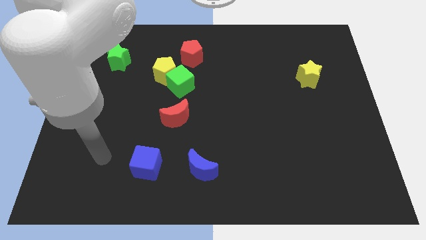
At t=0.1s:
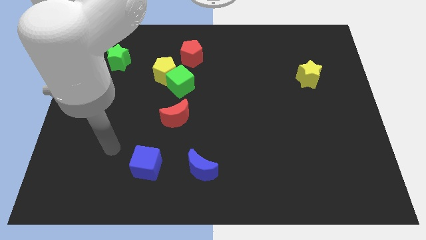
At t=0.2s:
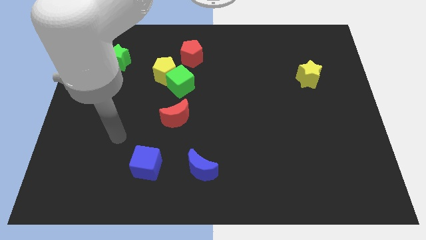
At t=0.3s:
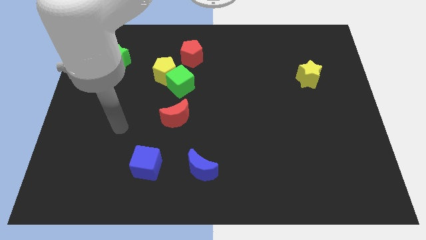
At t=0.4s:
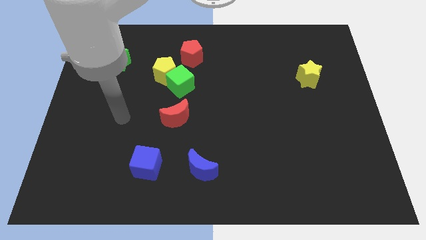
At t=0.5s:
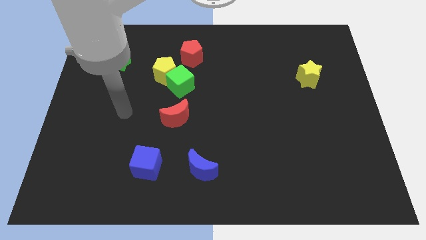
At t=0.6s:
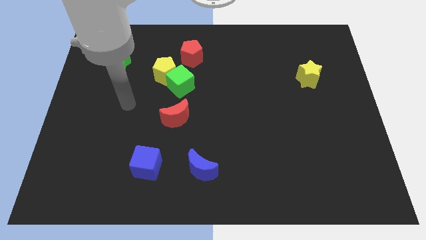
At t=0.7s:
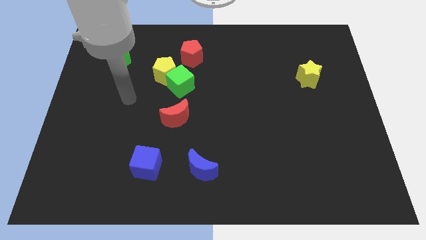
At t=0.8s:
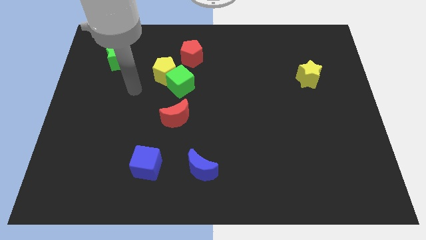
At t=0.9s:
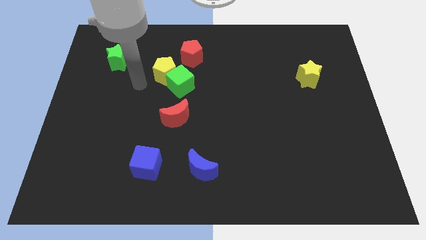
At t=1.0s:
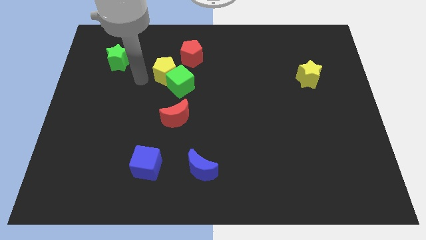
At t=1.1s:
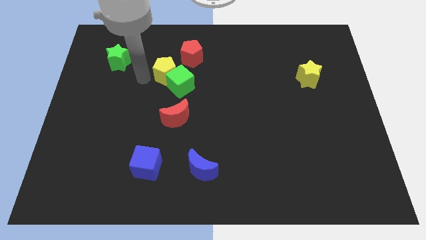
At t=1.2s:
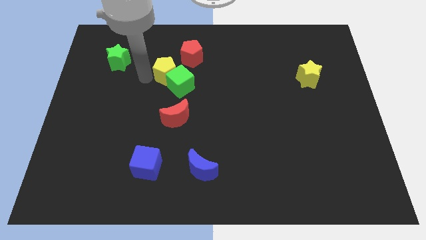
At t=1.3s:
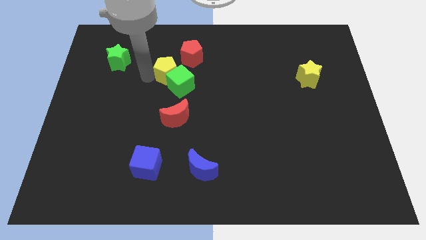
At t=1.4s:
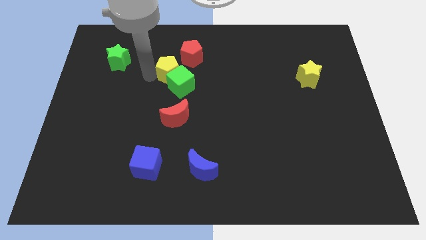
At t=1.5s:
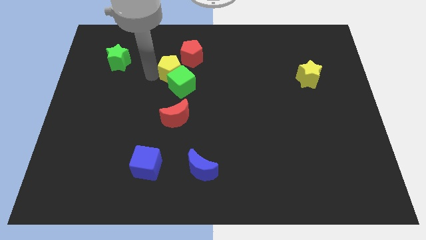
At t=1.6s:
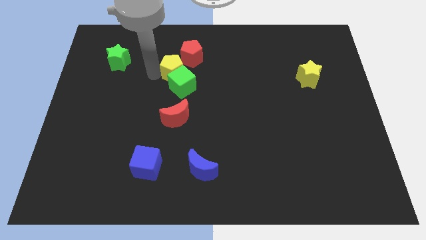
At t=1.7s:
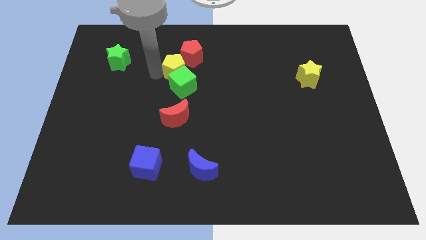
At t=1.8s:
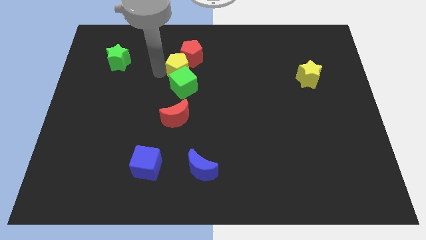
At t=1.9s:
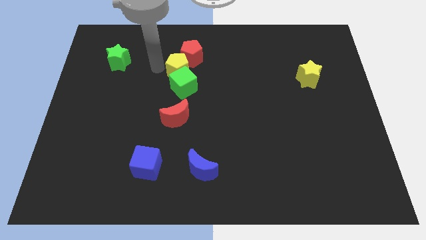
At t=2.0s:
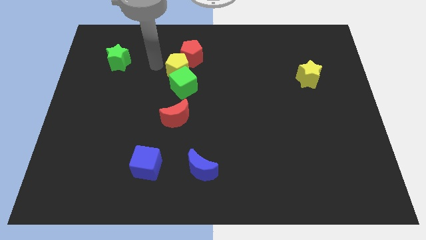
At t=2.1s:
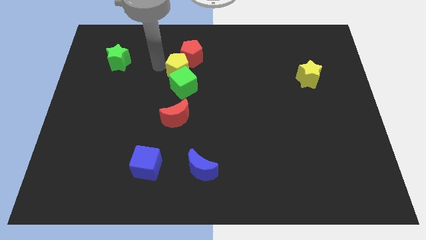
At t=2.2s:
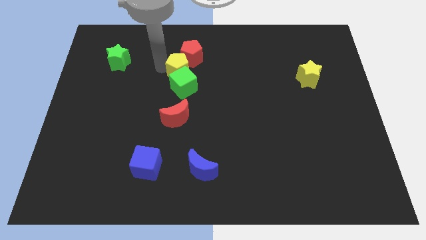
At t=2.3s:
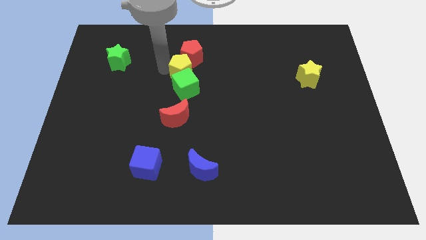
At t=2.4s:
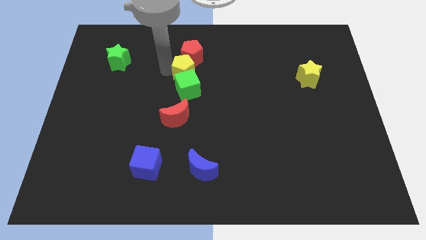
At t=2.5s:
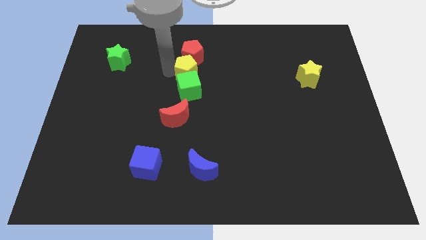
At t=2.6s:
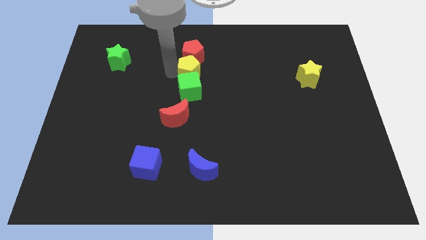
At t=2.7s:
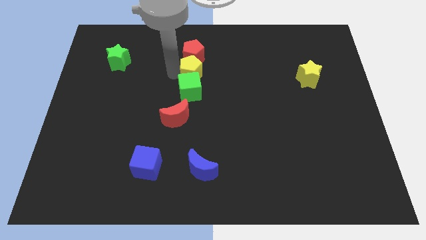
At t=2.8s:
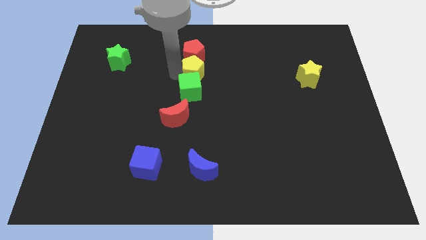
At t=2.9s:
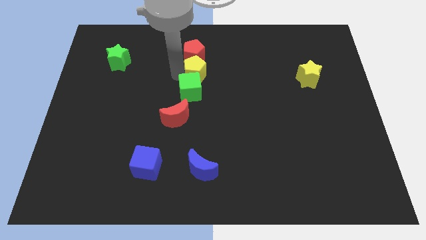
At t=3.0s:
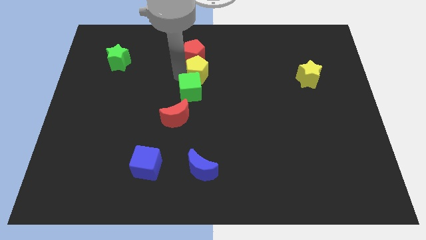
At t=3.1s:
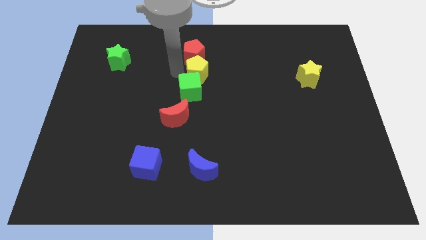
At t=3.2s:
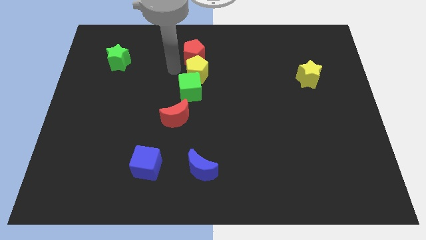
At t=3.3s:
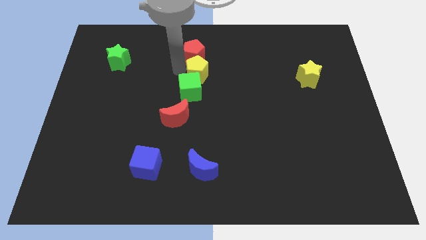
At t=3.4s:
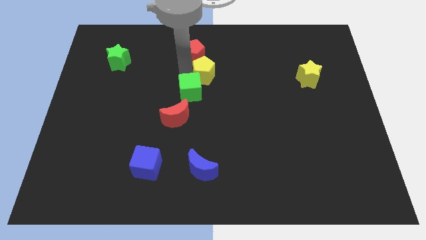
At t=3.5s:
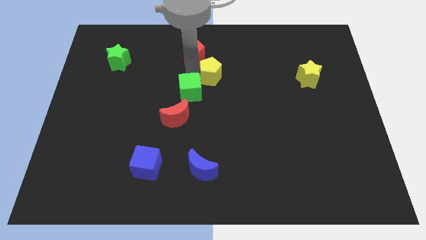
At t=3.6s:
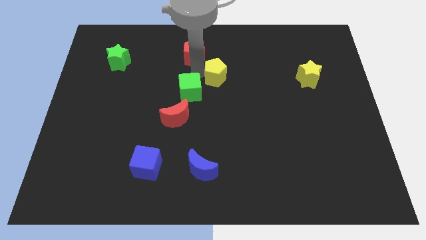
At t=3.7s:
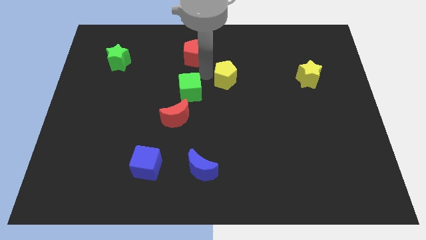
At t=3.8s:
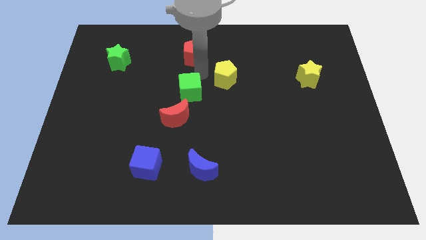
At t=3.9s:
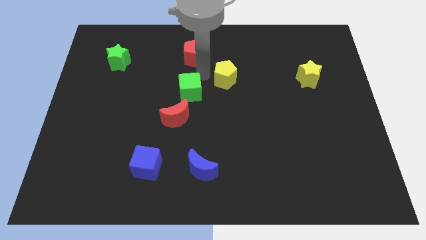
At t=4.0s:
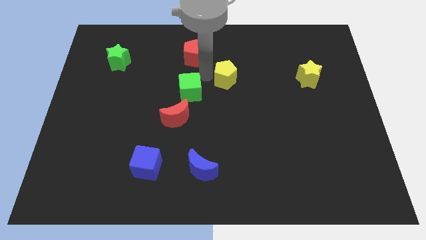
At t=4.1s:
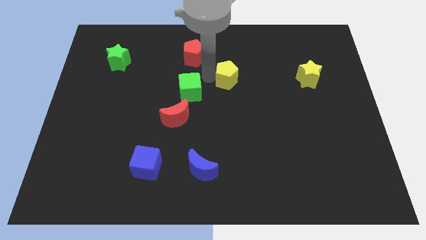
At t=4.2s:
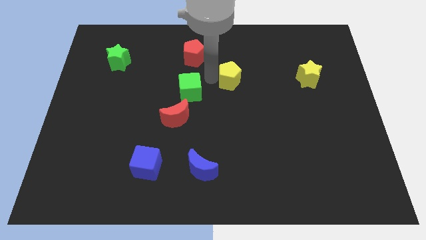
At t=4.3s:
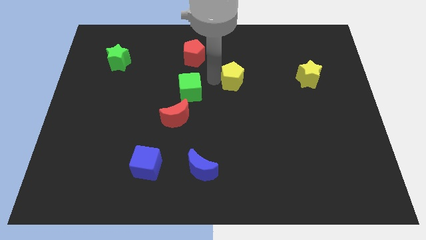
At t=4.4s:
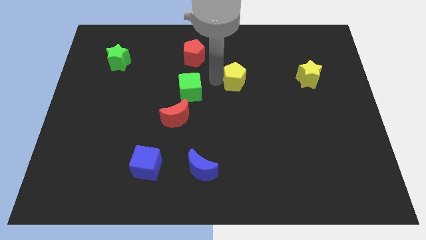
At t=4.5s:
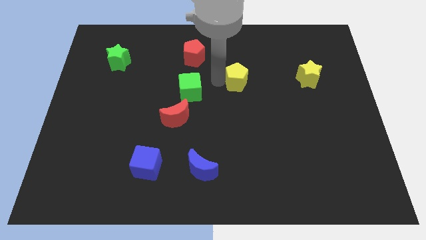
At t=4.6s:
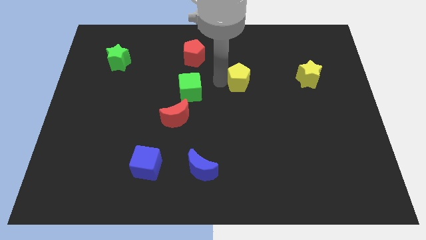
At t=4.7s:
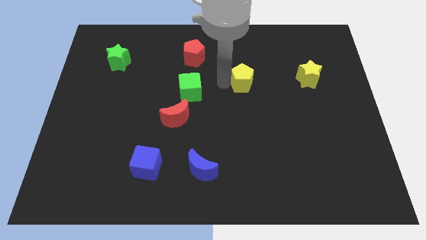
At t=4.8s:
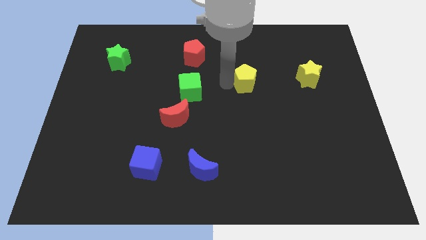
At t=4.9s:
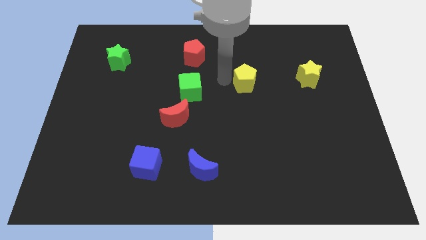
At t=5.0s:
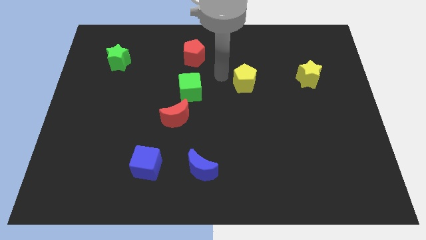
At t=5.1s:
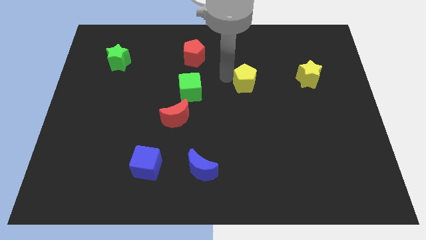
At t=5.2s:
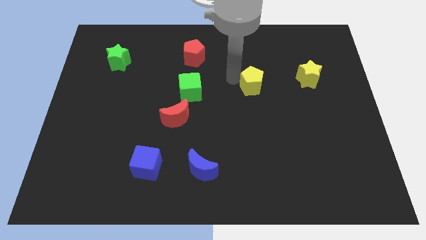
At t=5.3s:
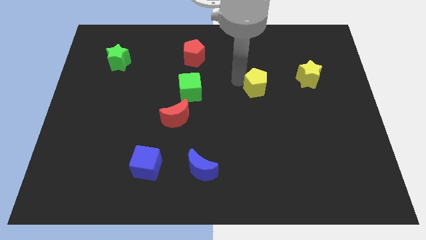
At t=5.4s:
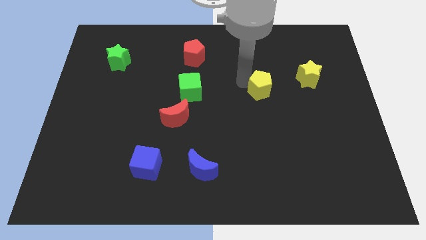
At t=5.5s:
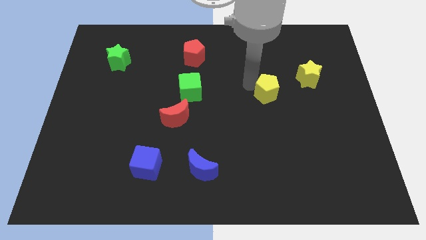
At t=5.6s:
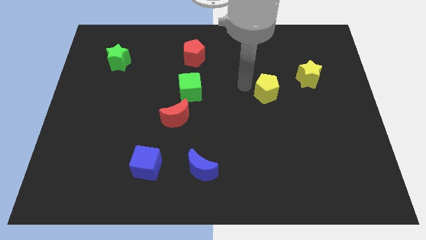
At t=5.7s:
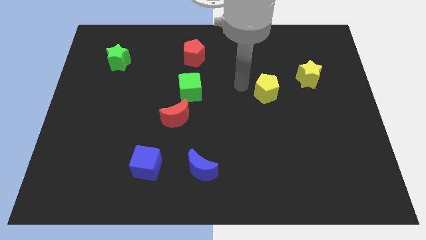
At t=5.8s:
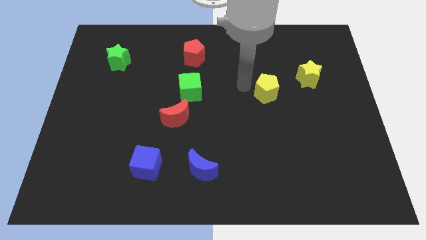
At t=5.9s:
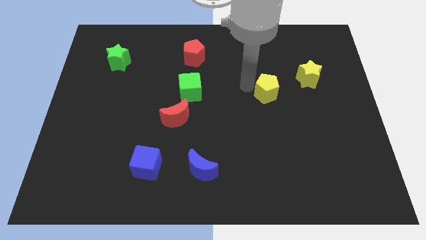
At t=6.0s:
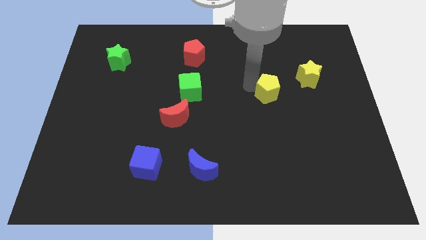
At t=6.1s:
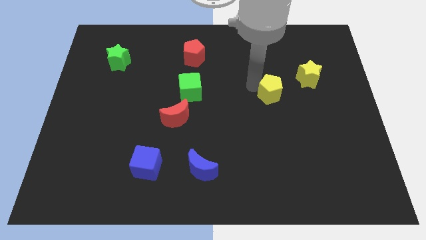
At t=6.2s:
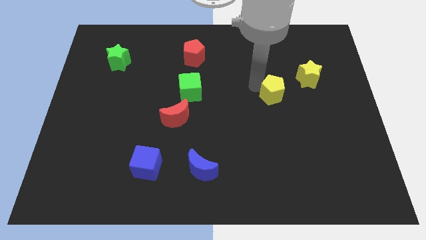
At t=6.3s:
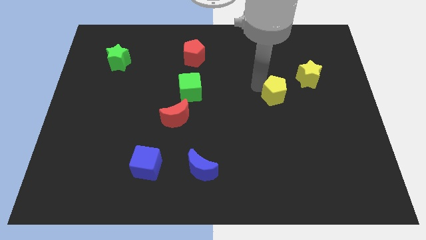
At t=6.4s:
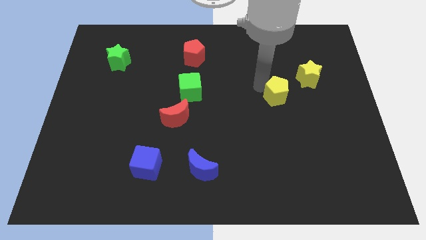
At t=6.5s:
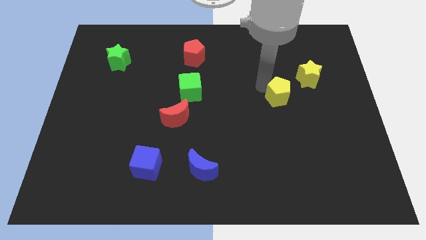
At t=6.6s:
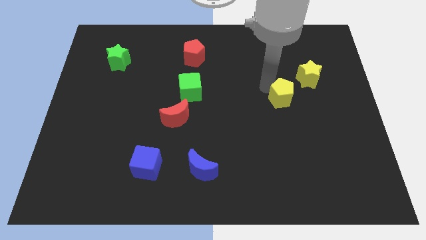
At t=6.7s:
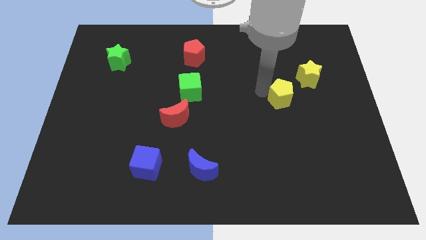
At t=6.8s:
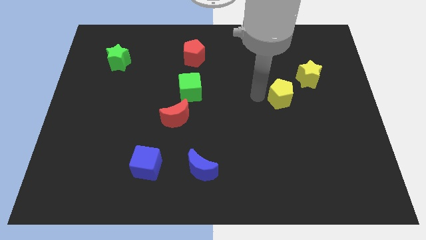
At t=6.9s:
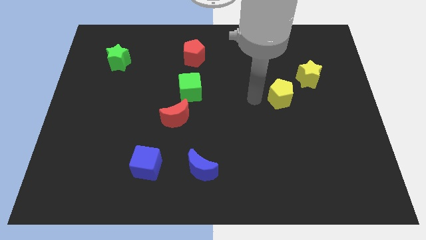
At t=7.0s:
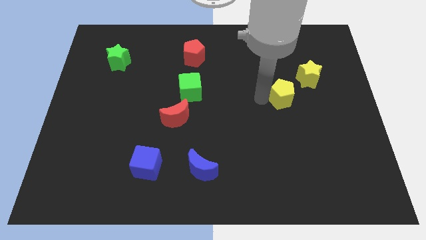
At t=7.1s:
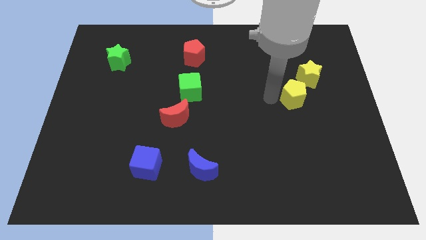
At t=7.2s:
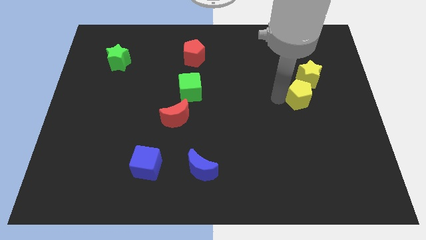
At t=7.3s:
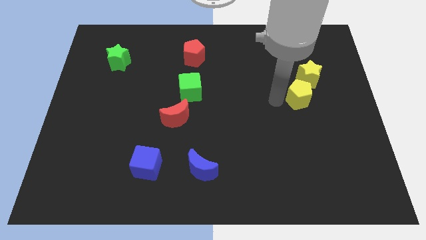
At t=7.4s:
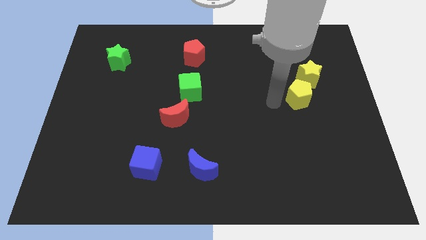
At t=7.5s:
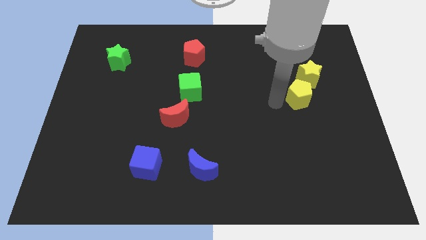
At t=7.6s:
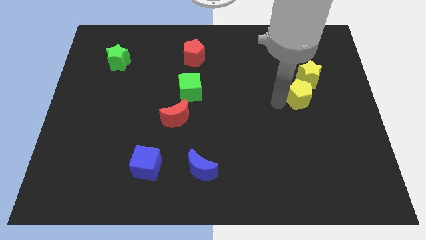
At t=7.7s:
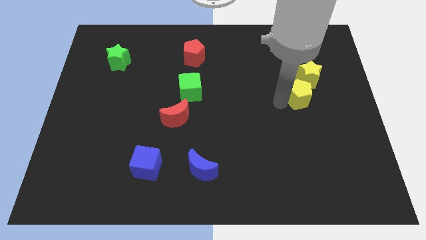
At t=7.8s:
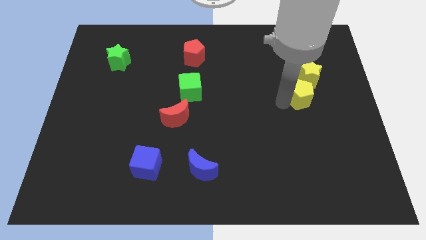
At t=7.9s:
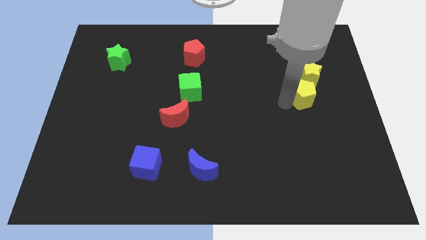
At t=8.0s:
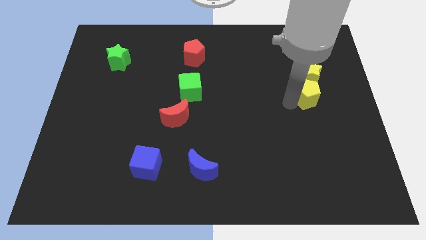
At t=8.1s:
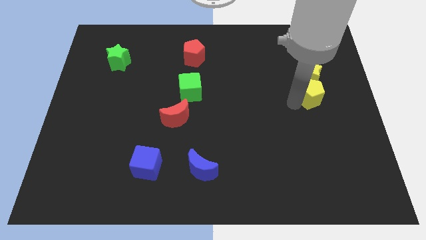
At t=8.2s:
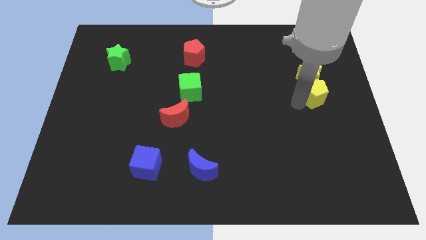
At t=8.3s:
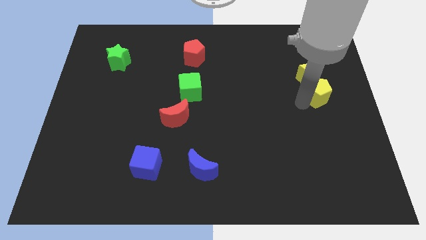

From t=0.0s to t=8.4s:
move the yellow pentagon to the right side
